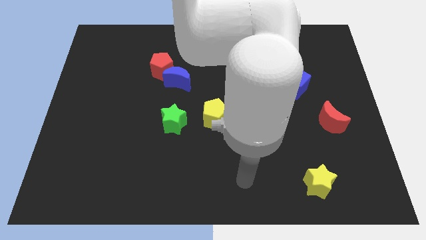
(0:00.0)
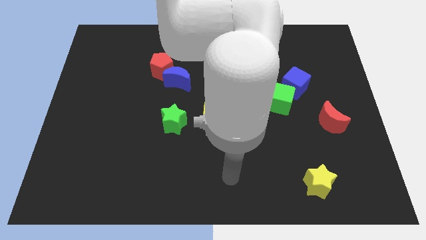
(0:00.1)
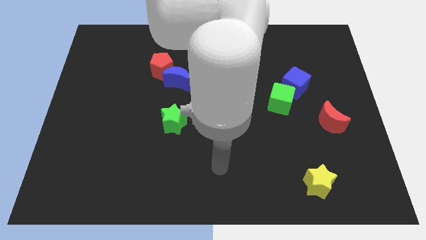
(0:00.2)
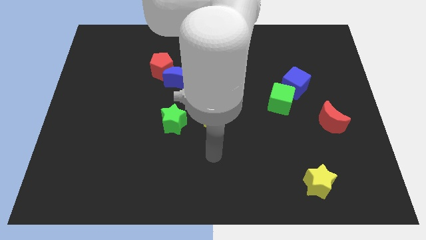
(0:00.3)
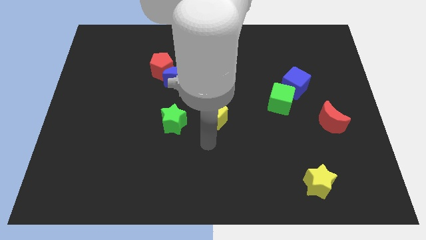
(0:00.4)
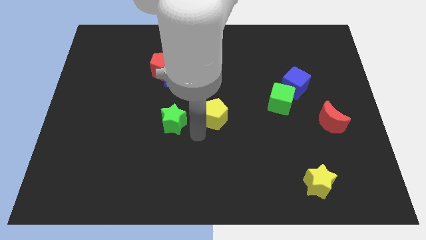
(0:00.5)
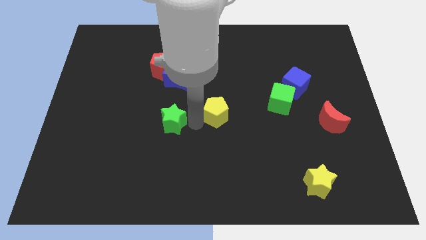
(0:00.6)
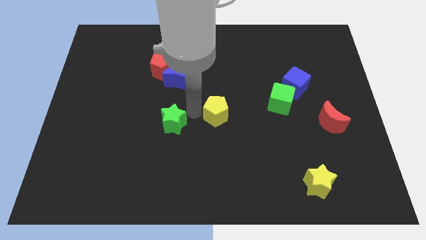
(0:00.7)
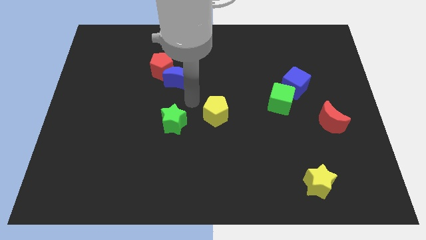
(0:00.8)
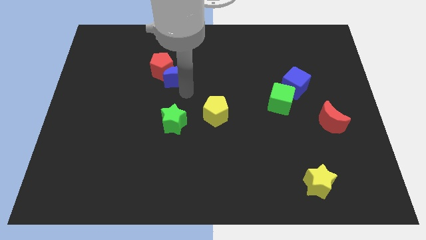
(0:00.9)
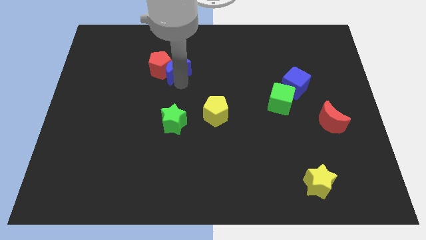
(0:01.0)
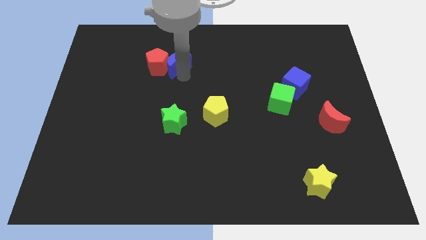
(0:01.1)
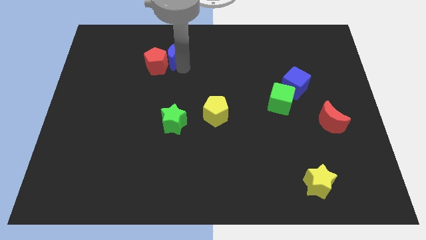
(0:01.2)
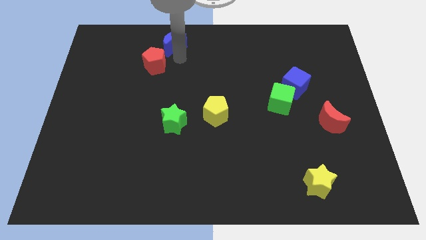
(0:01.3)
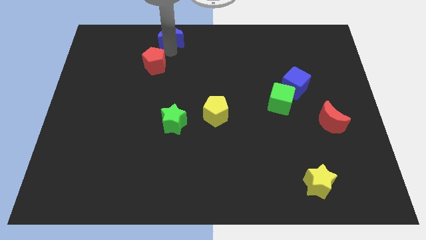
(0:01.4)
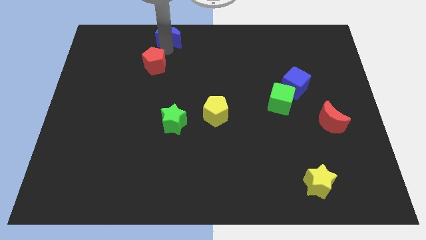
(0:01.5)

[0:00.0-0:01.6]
pull the red pentagon apart from the blue moon

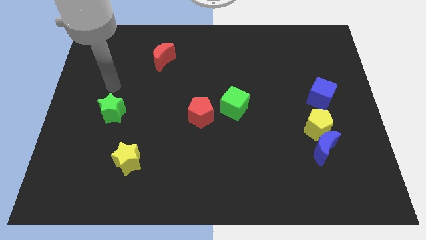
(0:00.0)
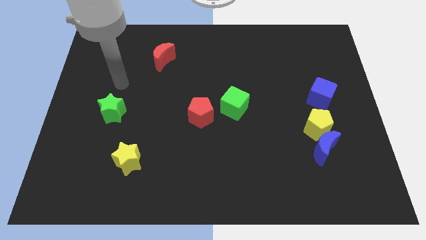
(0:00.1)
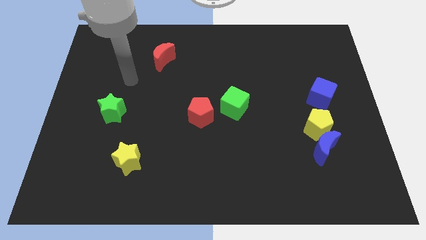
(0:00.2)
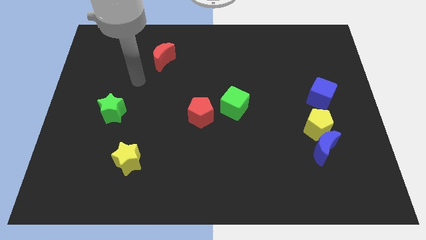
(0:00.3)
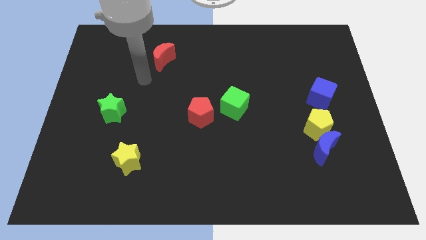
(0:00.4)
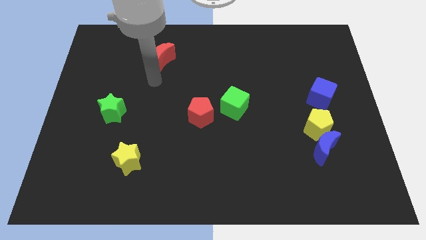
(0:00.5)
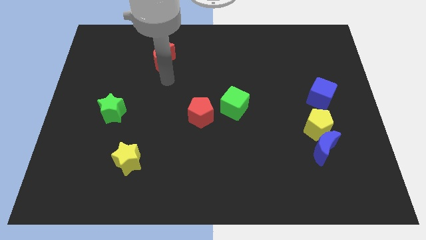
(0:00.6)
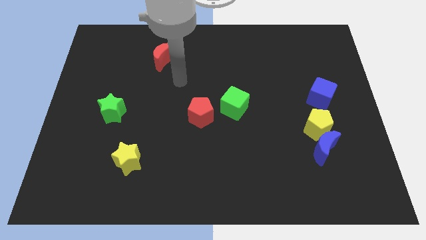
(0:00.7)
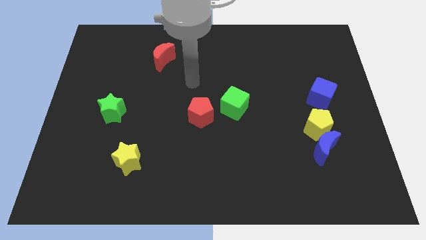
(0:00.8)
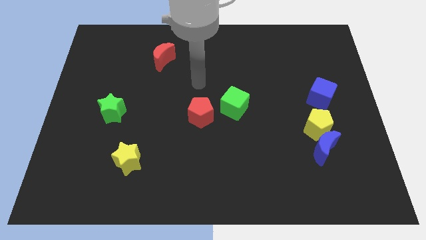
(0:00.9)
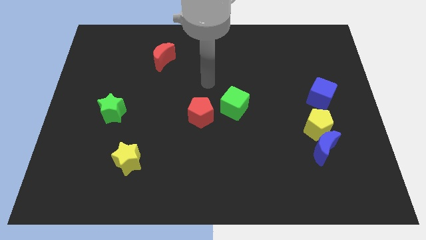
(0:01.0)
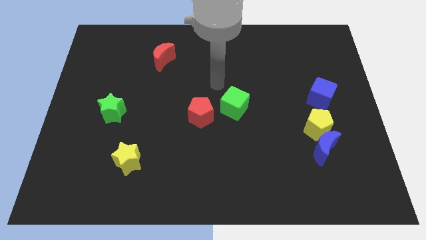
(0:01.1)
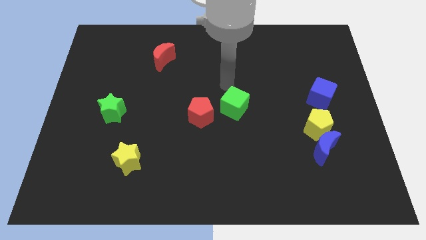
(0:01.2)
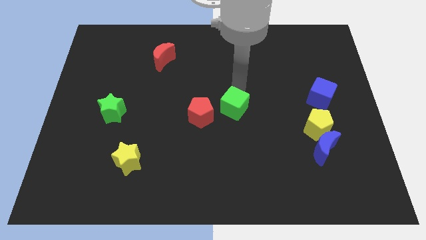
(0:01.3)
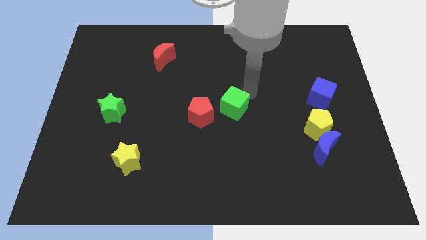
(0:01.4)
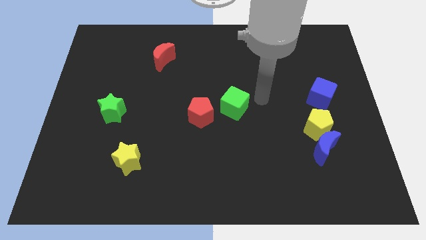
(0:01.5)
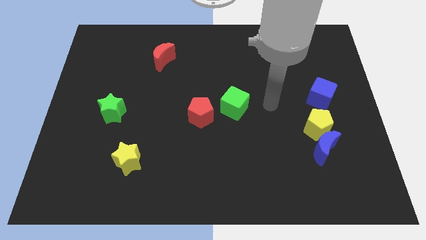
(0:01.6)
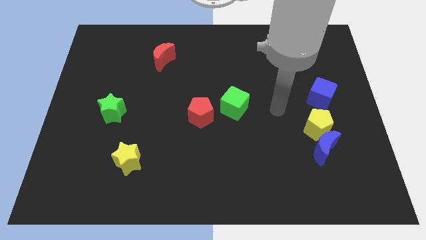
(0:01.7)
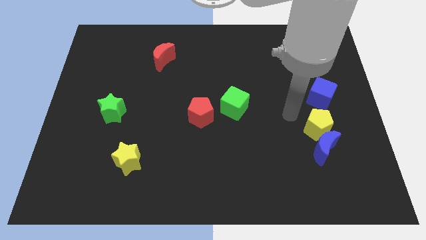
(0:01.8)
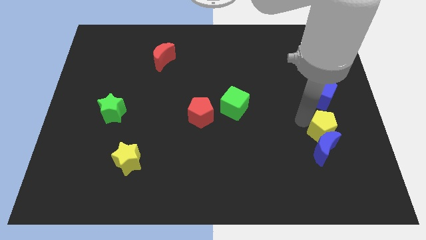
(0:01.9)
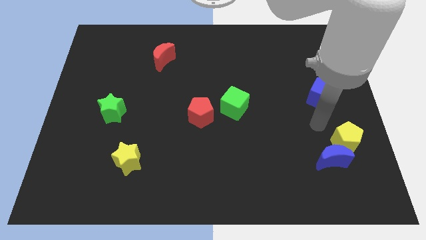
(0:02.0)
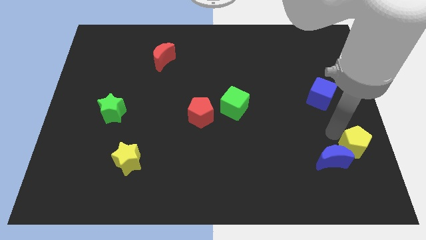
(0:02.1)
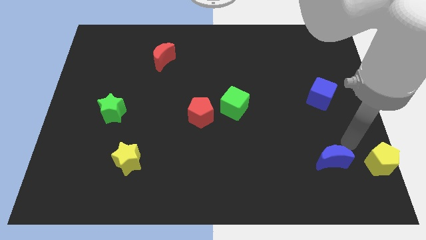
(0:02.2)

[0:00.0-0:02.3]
separate the blue moon from the yellow pentagon

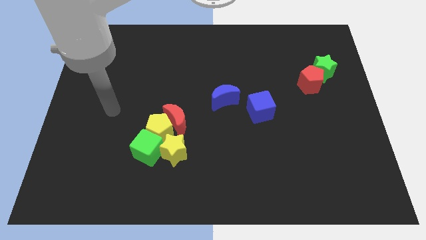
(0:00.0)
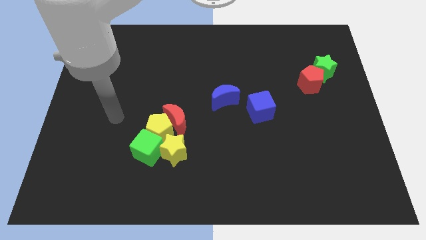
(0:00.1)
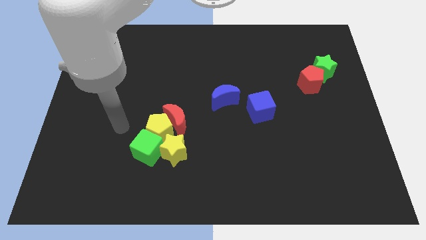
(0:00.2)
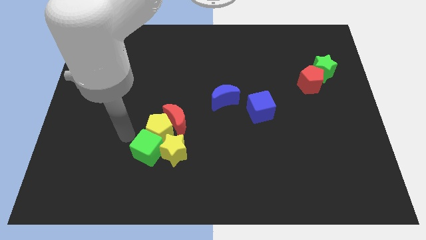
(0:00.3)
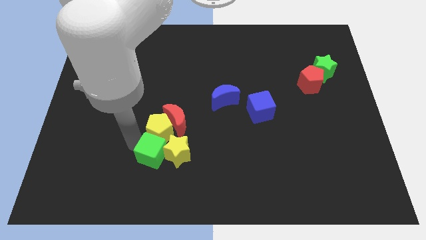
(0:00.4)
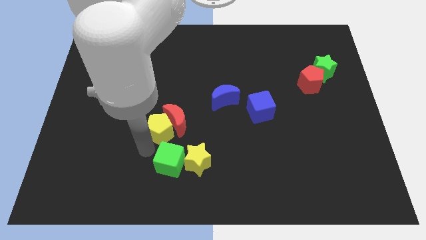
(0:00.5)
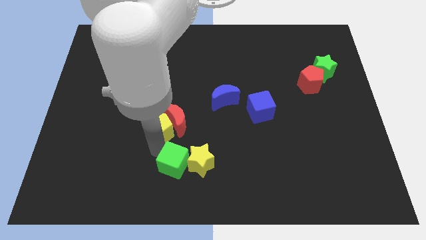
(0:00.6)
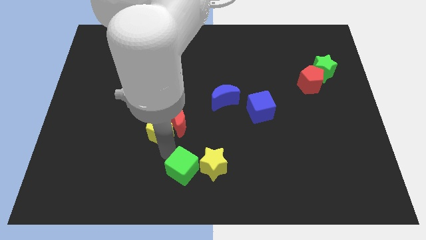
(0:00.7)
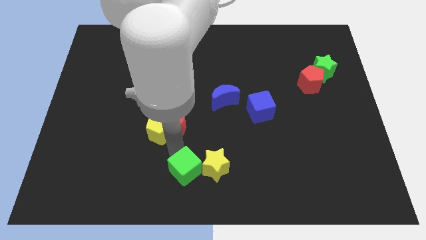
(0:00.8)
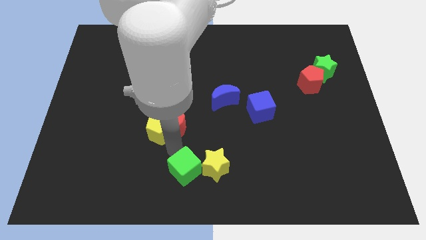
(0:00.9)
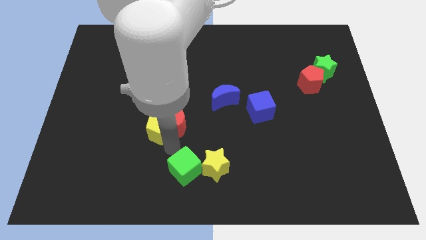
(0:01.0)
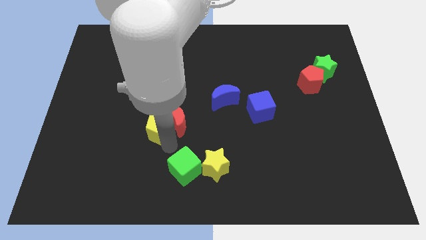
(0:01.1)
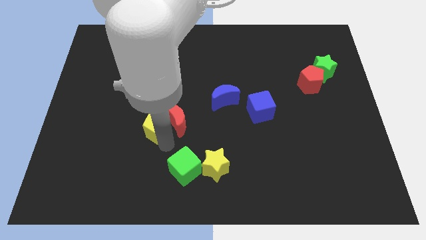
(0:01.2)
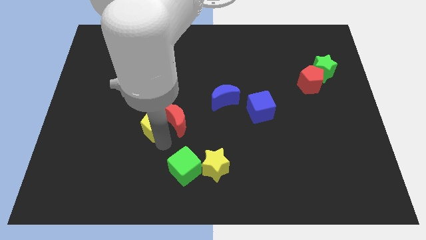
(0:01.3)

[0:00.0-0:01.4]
move the yellow pentagon away from the red moon, green cube, and yellow star

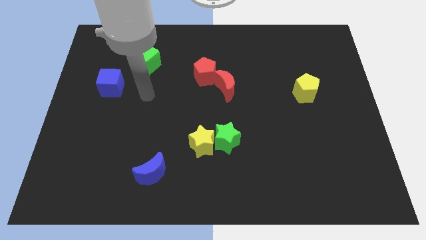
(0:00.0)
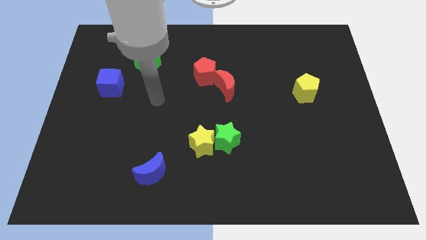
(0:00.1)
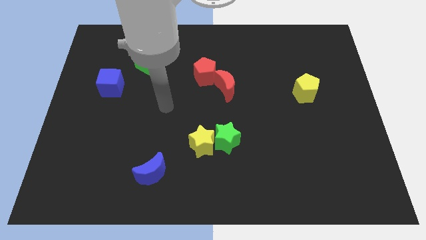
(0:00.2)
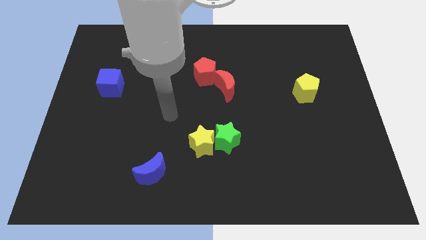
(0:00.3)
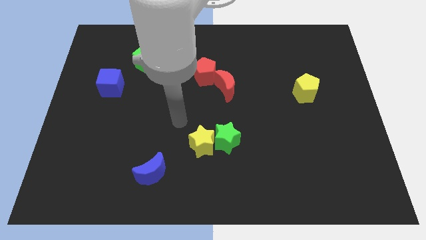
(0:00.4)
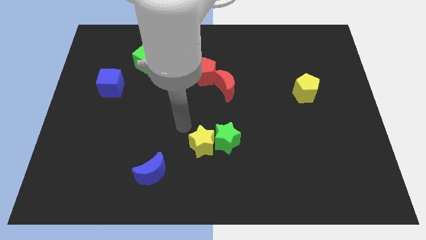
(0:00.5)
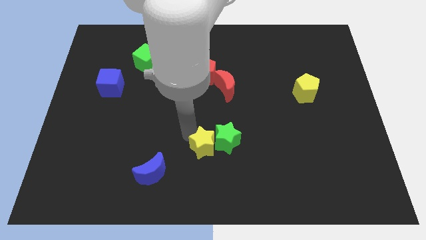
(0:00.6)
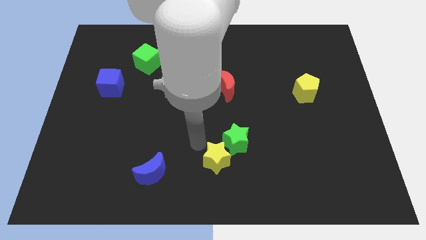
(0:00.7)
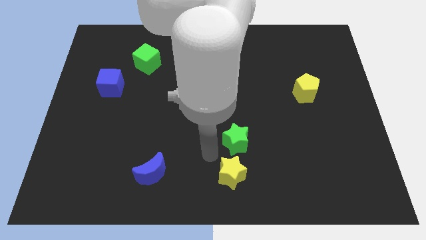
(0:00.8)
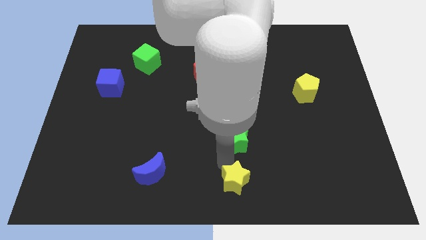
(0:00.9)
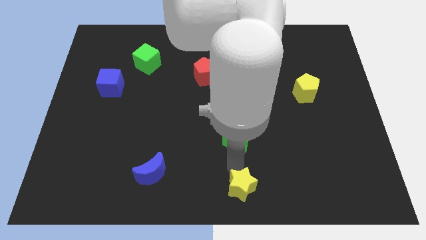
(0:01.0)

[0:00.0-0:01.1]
move the green star away from the yellow star

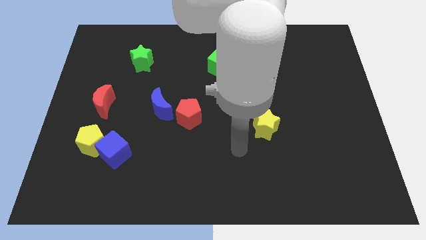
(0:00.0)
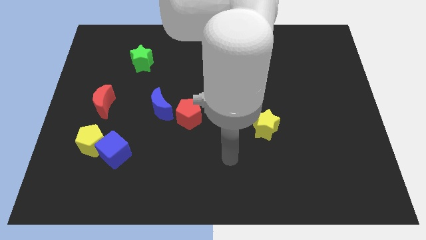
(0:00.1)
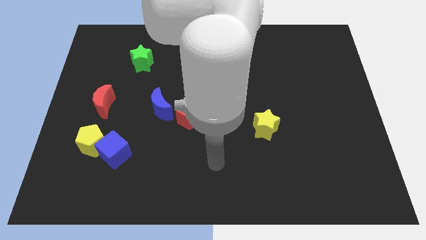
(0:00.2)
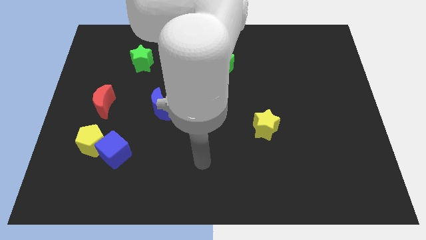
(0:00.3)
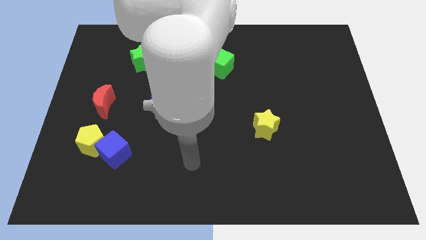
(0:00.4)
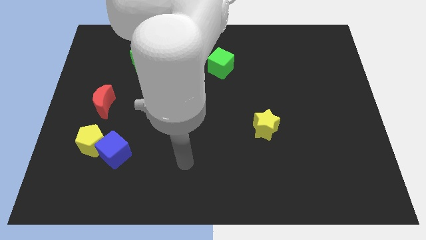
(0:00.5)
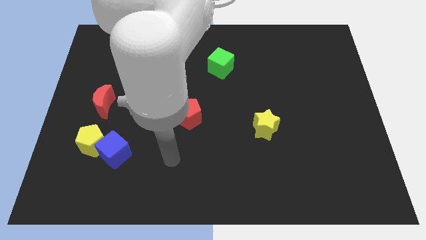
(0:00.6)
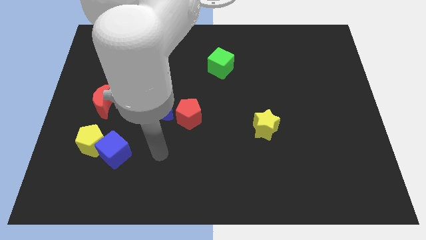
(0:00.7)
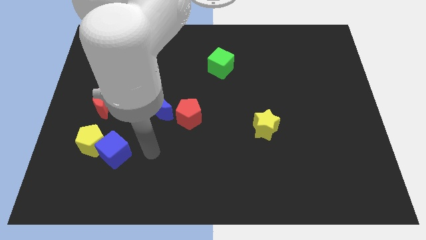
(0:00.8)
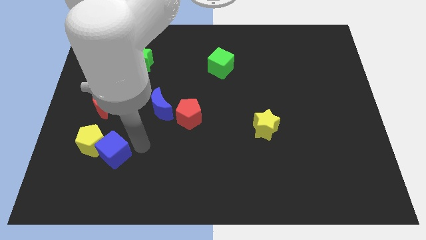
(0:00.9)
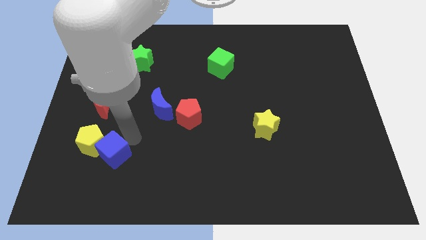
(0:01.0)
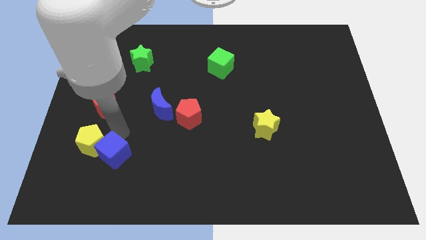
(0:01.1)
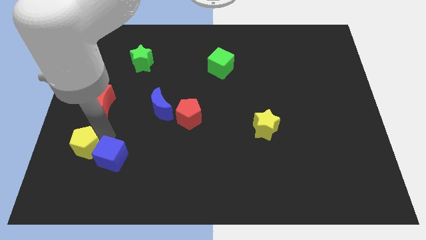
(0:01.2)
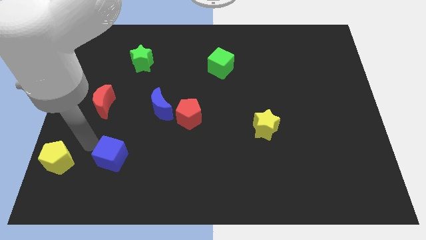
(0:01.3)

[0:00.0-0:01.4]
move the blue cube away from the yellow pentagon

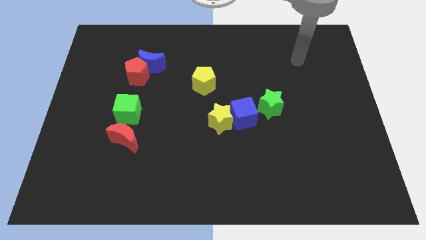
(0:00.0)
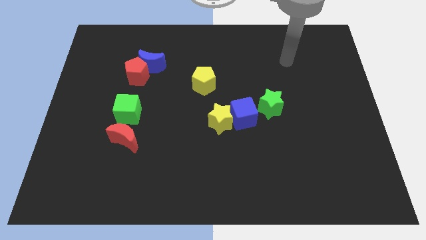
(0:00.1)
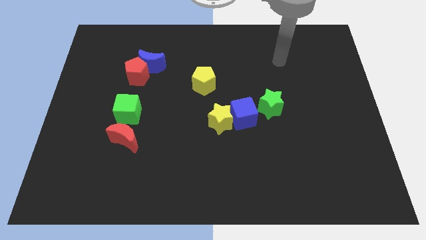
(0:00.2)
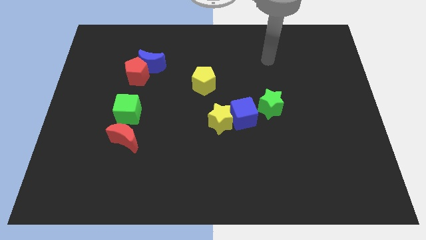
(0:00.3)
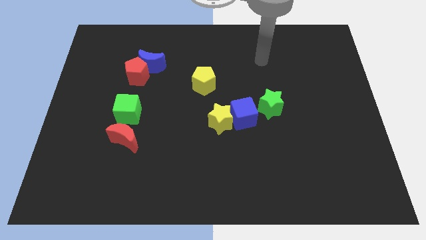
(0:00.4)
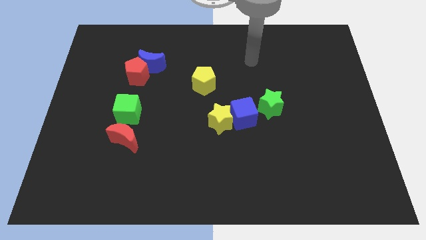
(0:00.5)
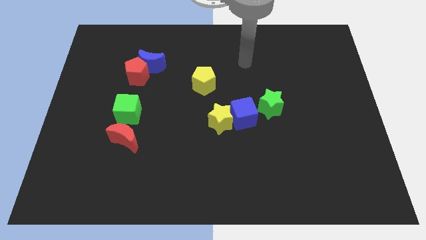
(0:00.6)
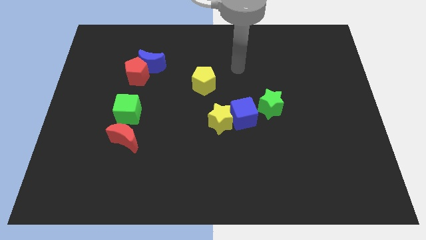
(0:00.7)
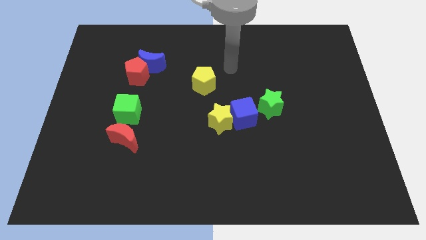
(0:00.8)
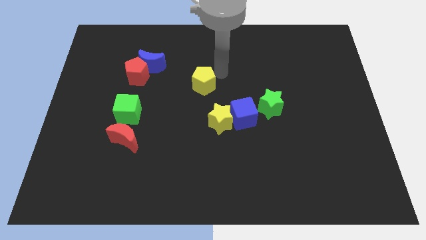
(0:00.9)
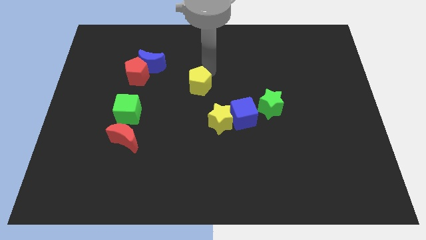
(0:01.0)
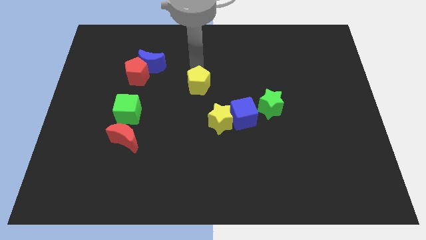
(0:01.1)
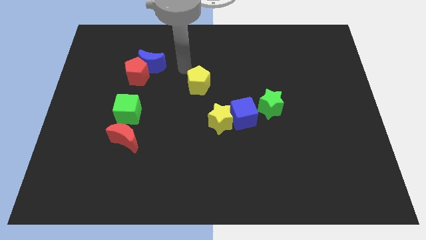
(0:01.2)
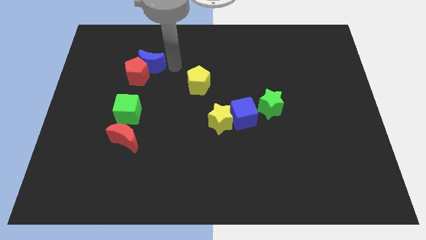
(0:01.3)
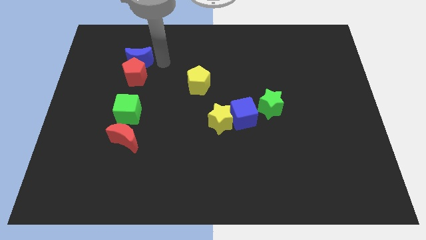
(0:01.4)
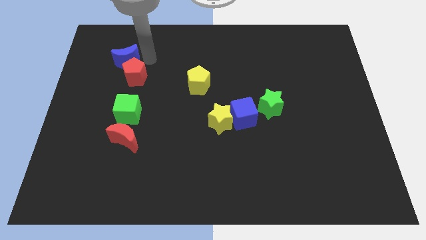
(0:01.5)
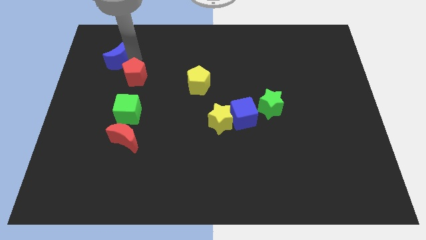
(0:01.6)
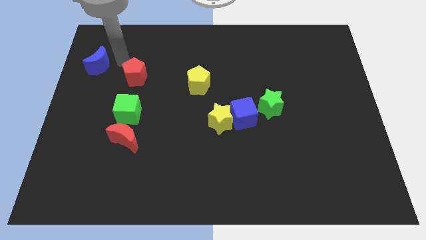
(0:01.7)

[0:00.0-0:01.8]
move the red pentagon away from the blue moon
